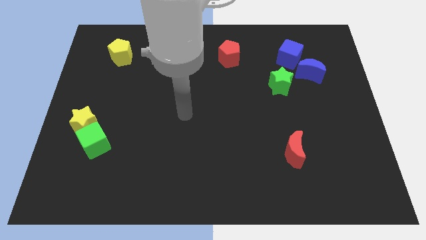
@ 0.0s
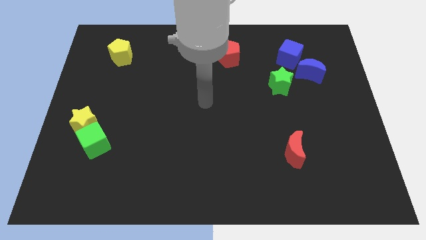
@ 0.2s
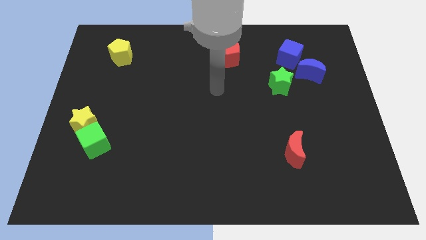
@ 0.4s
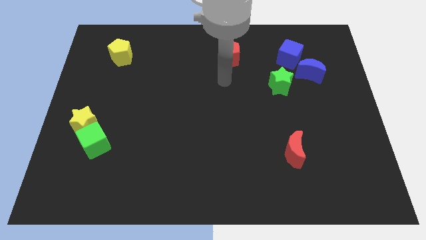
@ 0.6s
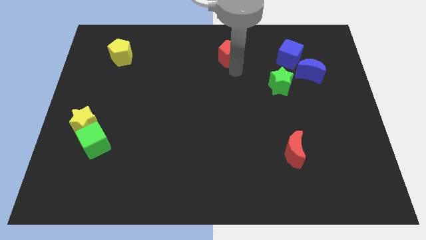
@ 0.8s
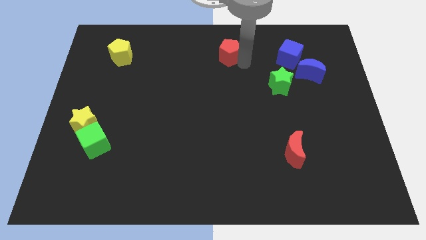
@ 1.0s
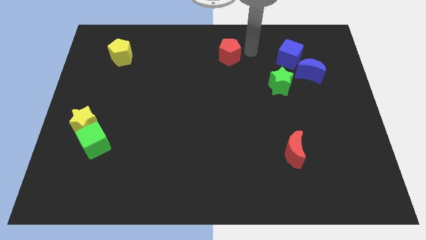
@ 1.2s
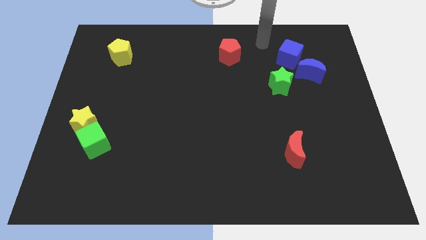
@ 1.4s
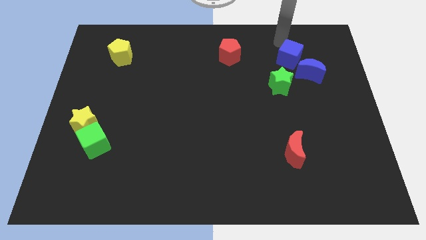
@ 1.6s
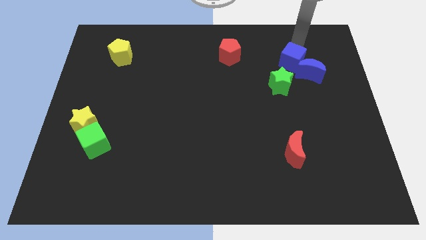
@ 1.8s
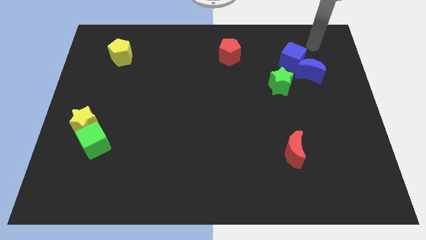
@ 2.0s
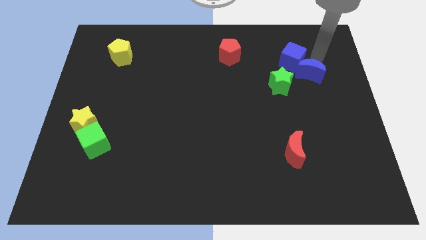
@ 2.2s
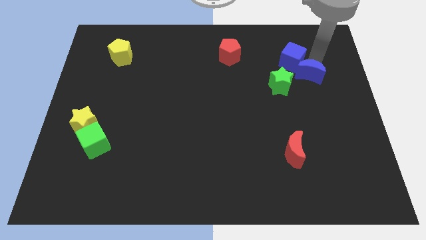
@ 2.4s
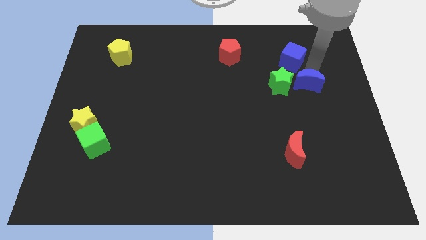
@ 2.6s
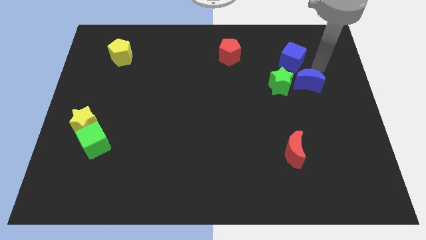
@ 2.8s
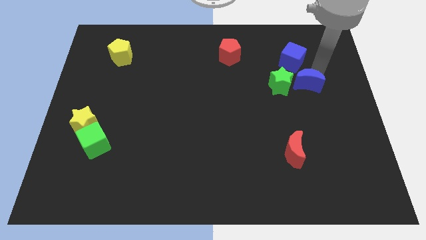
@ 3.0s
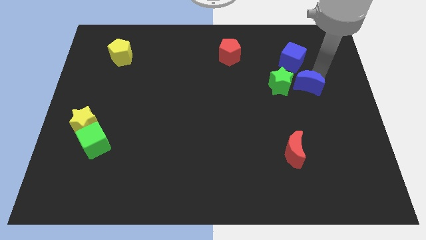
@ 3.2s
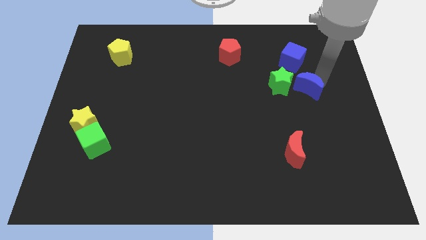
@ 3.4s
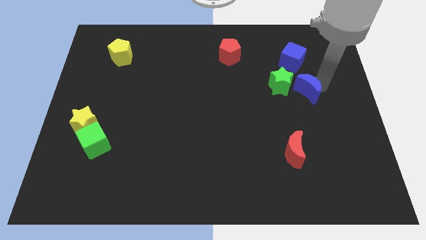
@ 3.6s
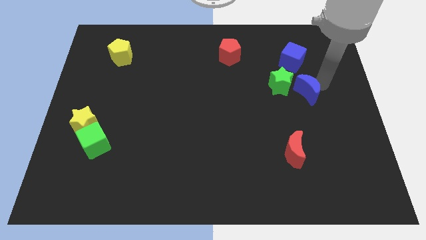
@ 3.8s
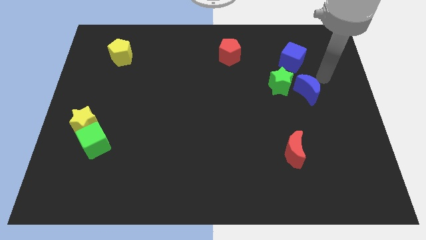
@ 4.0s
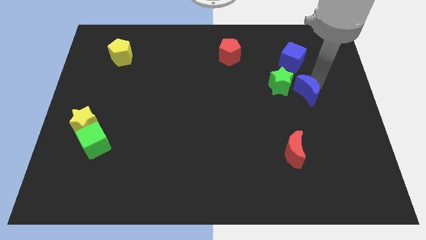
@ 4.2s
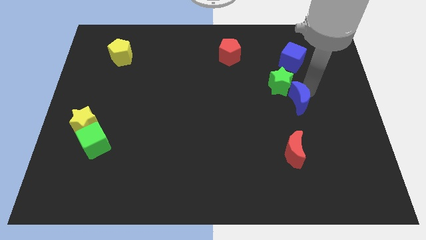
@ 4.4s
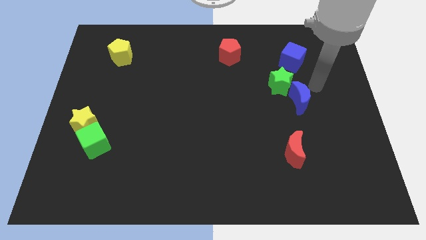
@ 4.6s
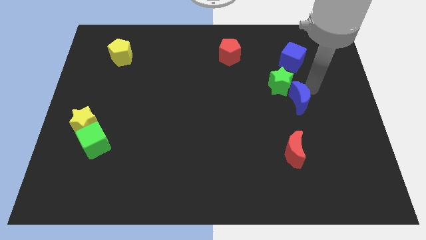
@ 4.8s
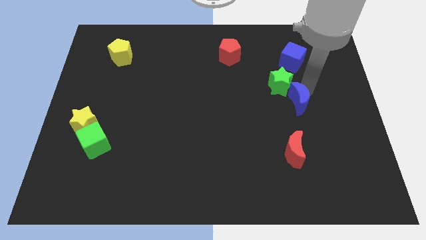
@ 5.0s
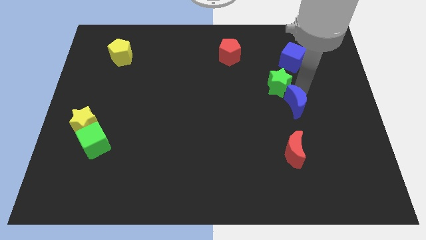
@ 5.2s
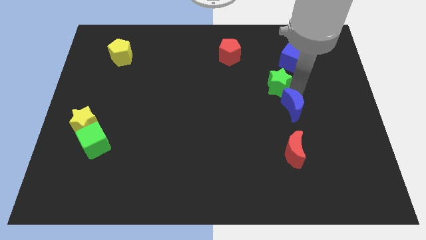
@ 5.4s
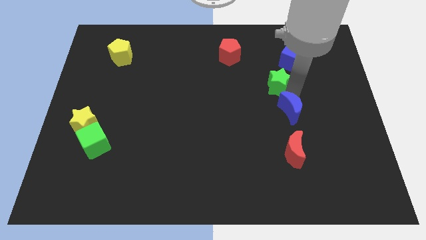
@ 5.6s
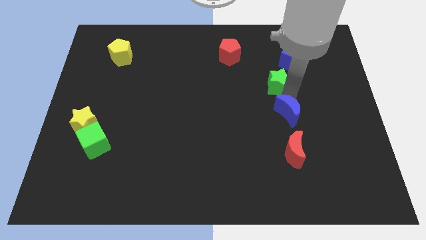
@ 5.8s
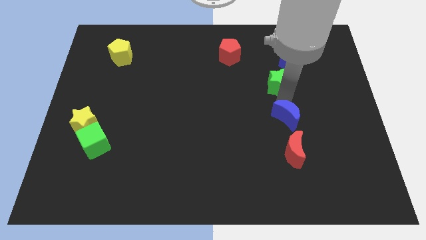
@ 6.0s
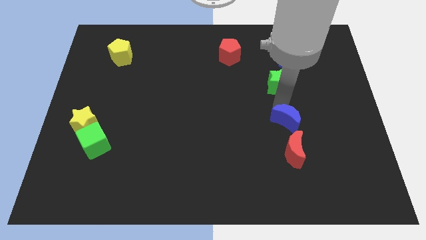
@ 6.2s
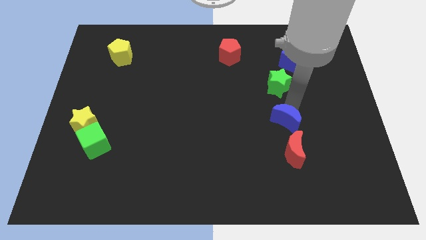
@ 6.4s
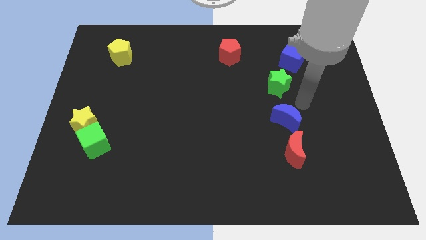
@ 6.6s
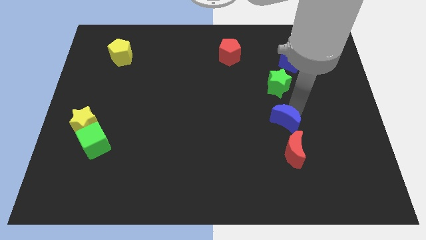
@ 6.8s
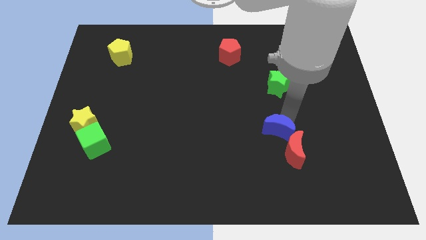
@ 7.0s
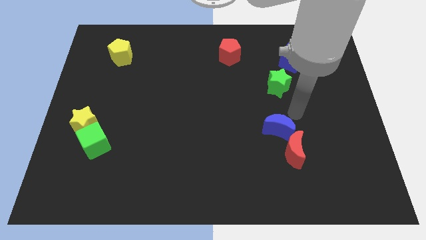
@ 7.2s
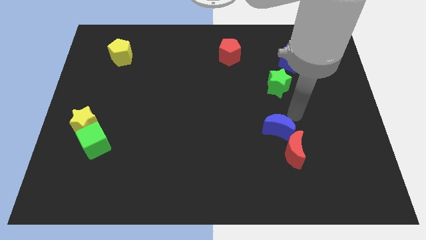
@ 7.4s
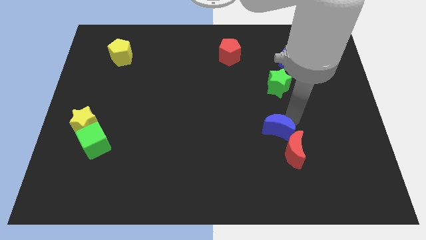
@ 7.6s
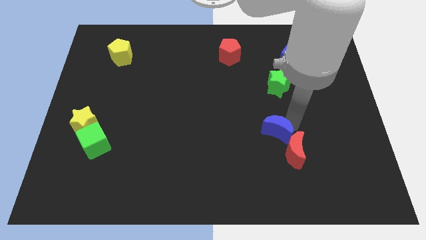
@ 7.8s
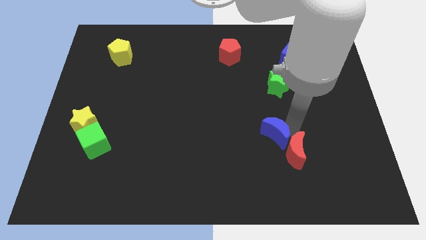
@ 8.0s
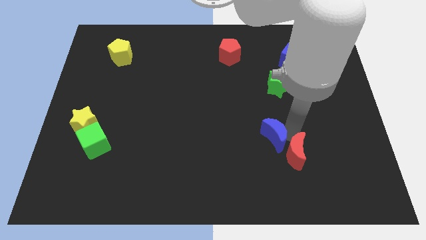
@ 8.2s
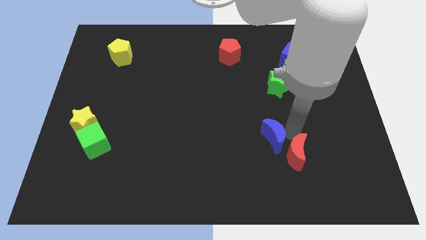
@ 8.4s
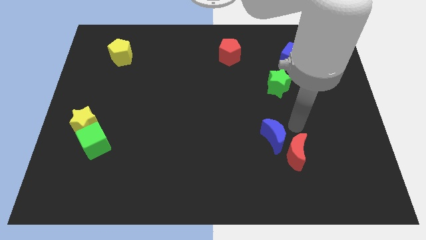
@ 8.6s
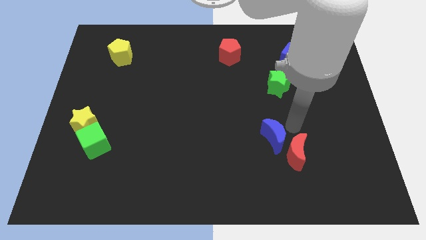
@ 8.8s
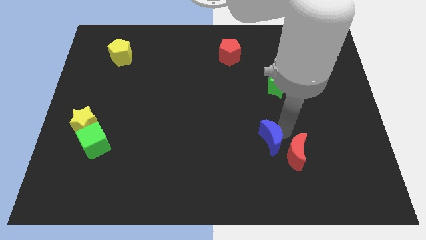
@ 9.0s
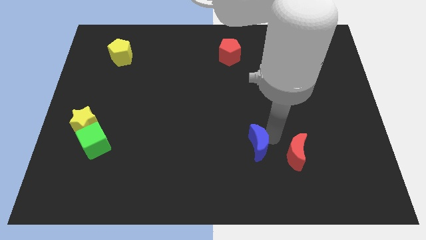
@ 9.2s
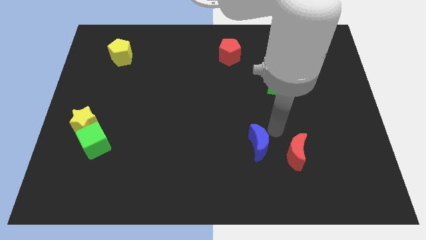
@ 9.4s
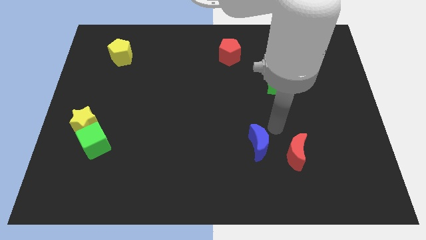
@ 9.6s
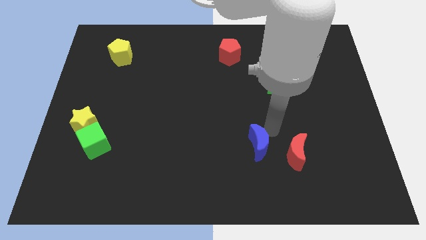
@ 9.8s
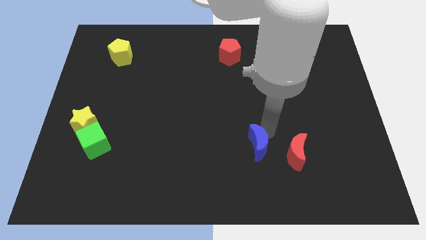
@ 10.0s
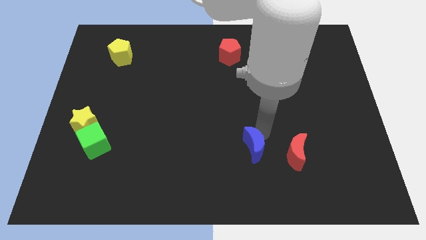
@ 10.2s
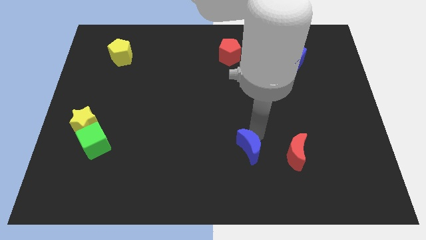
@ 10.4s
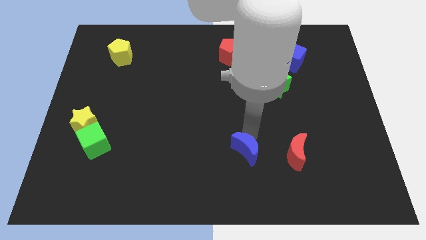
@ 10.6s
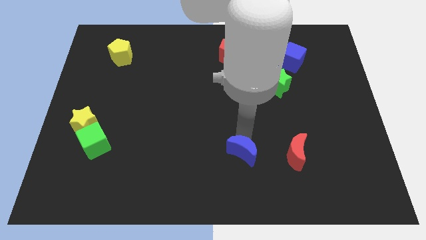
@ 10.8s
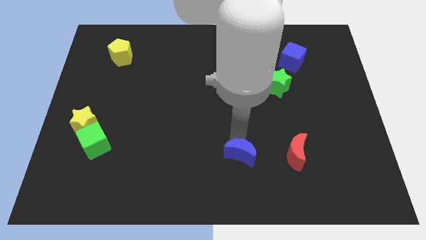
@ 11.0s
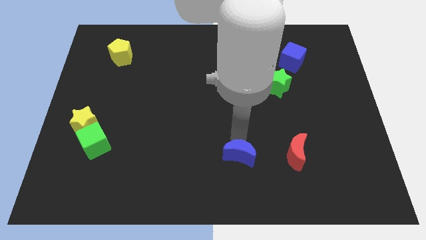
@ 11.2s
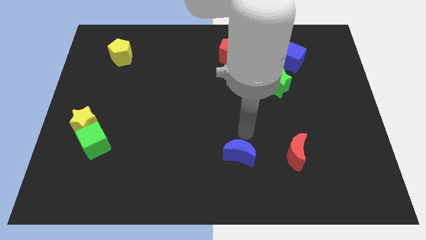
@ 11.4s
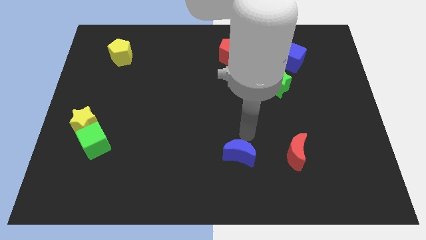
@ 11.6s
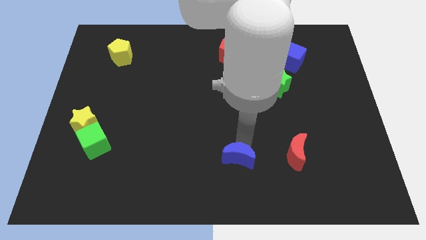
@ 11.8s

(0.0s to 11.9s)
slide the blue moon to the bottom
